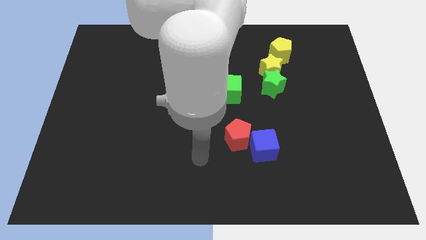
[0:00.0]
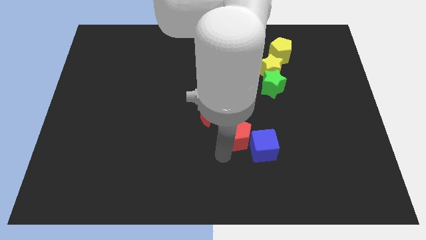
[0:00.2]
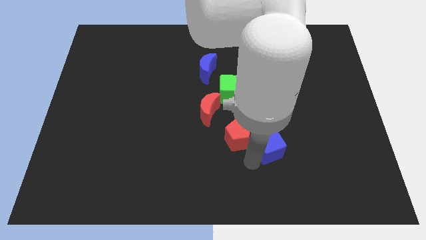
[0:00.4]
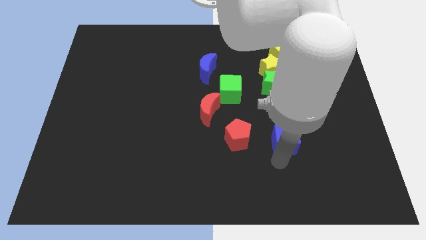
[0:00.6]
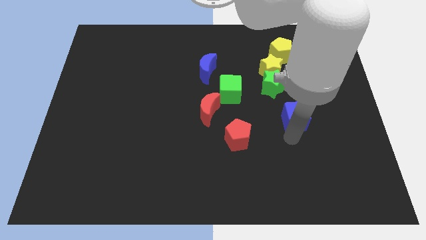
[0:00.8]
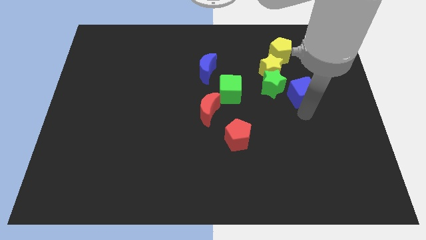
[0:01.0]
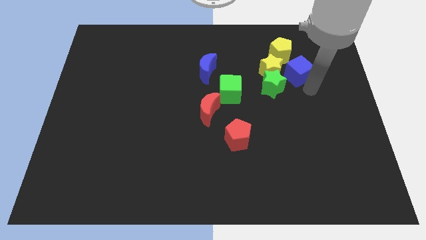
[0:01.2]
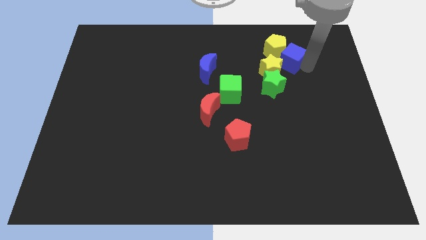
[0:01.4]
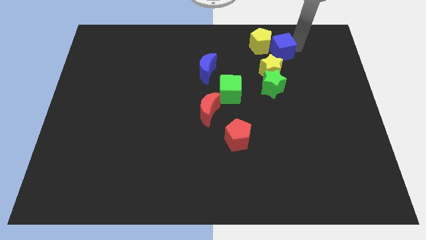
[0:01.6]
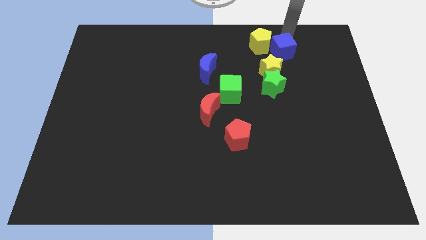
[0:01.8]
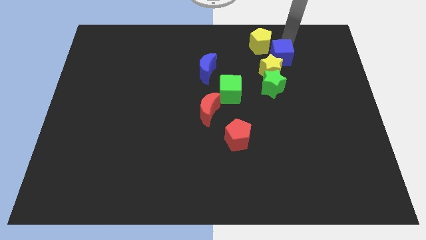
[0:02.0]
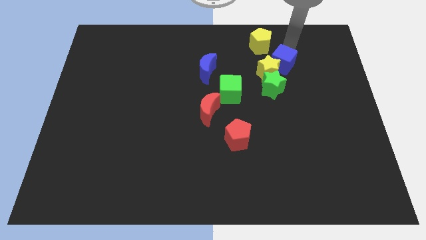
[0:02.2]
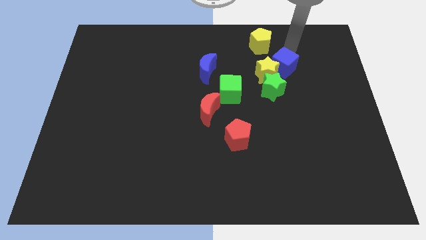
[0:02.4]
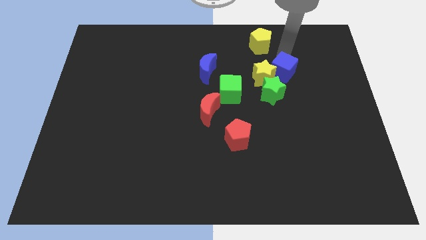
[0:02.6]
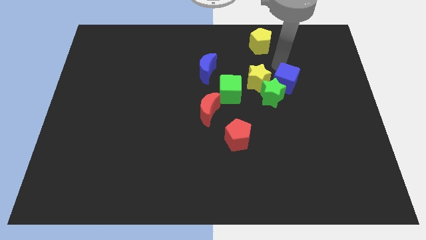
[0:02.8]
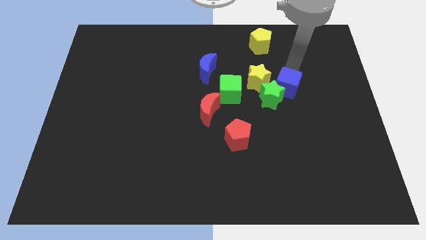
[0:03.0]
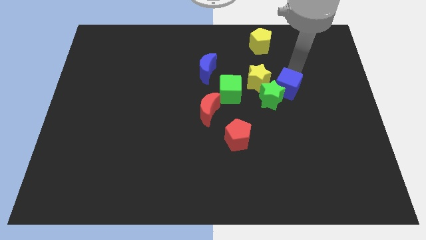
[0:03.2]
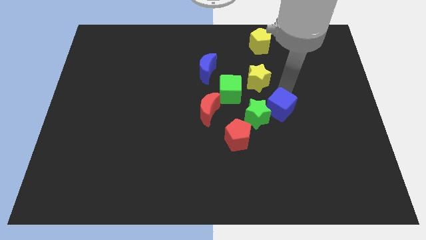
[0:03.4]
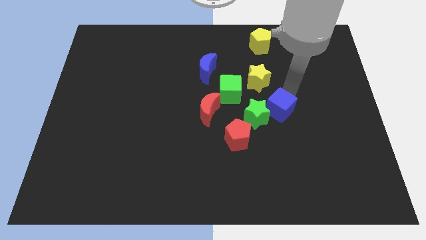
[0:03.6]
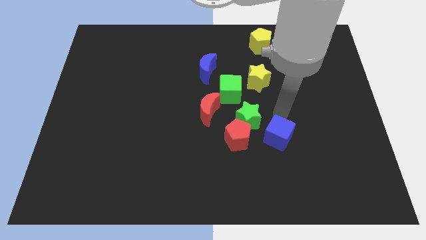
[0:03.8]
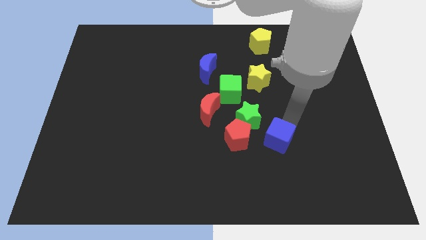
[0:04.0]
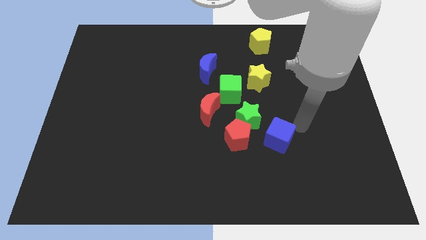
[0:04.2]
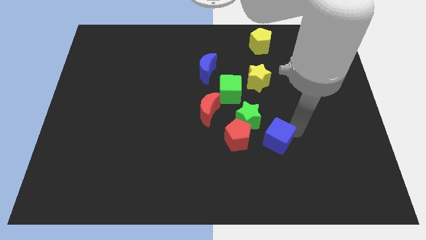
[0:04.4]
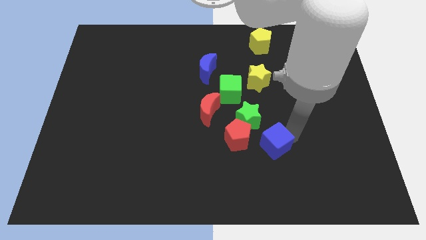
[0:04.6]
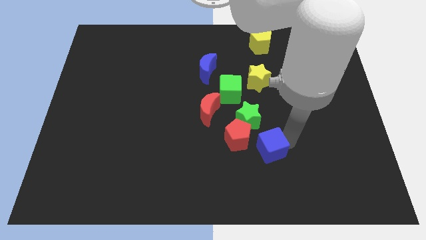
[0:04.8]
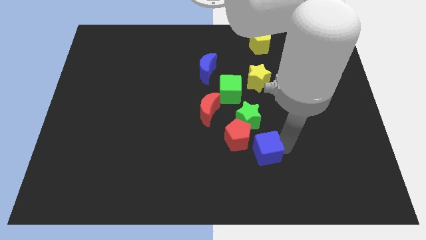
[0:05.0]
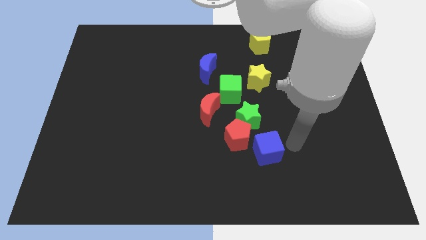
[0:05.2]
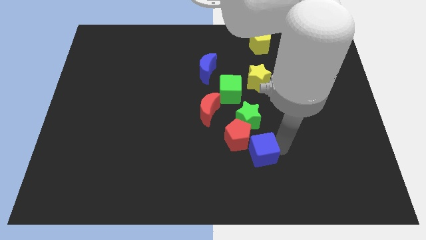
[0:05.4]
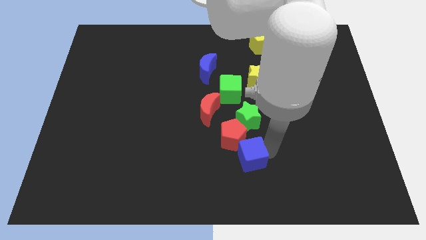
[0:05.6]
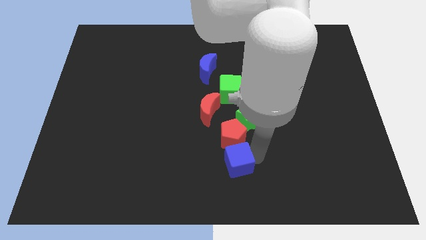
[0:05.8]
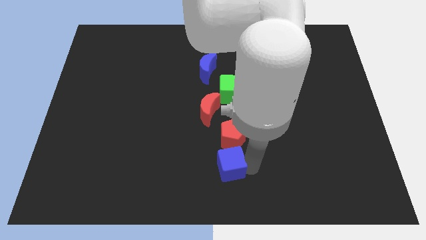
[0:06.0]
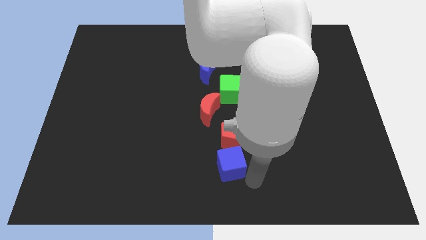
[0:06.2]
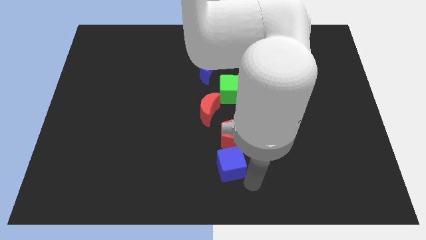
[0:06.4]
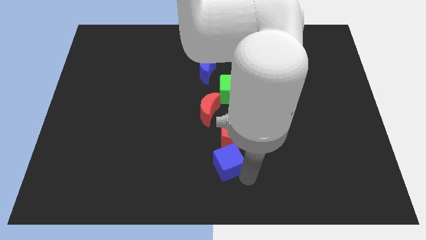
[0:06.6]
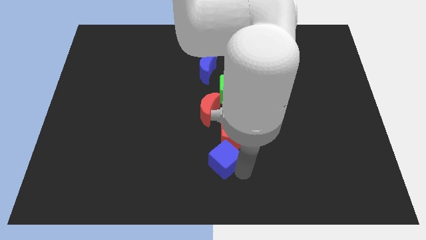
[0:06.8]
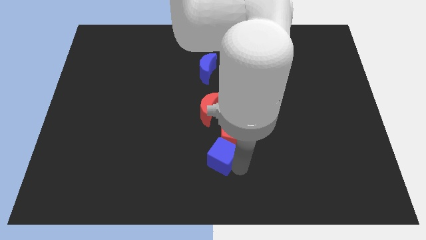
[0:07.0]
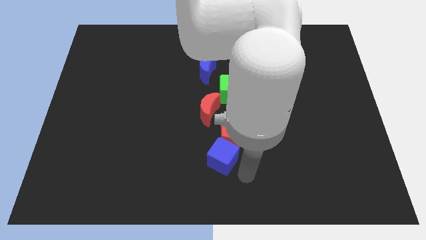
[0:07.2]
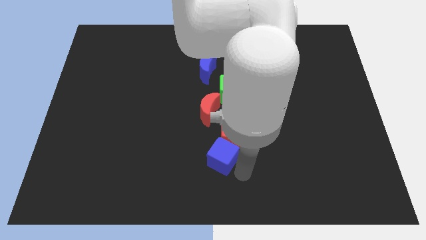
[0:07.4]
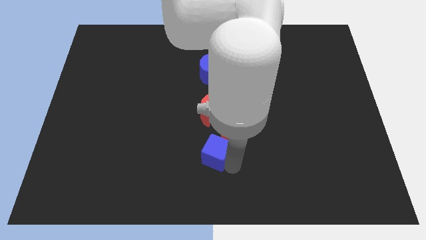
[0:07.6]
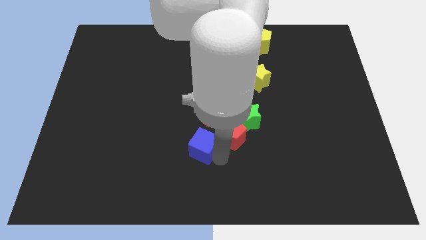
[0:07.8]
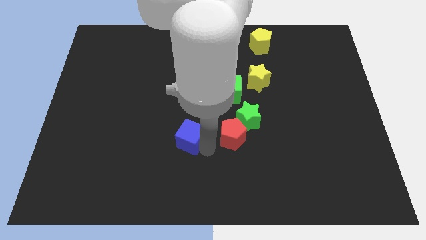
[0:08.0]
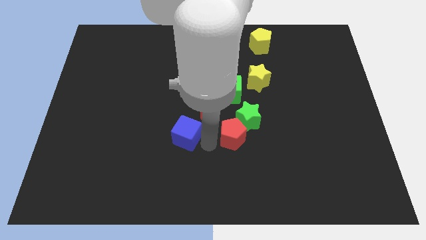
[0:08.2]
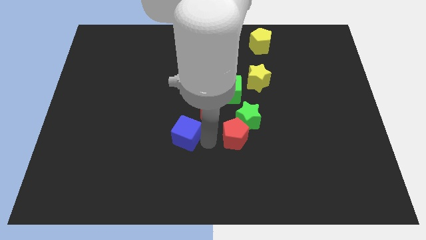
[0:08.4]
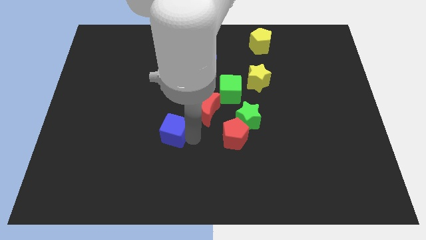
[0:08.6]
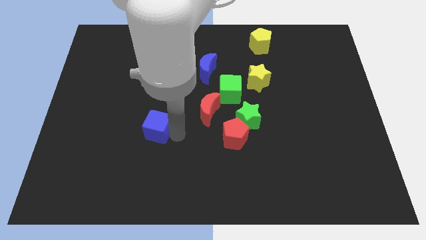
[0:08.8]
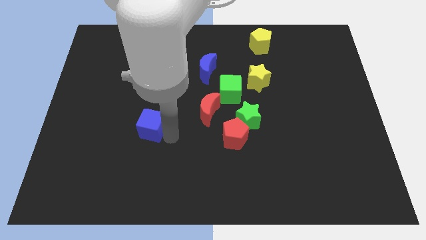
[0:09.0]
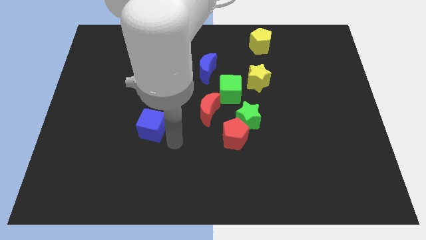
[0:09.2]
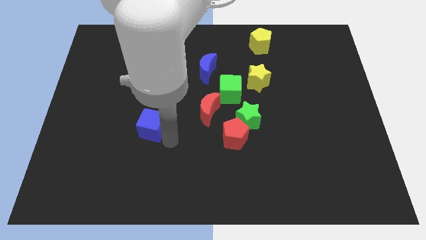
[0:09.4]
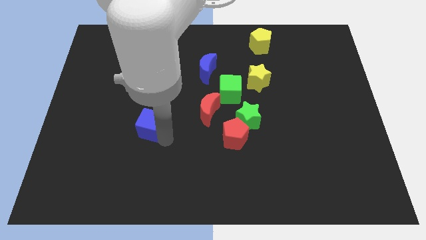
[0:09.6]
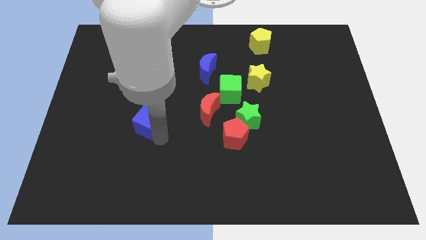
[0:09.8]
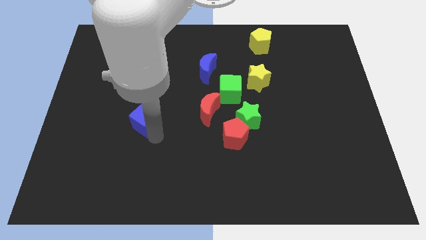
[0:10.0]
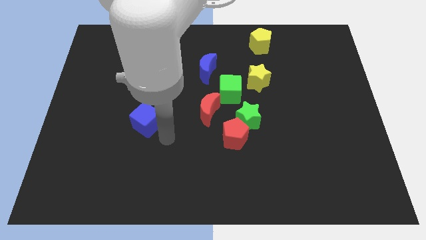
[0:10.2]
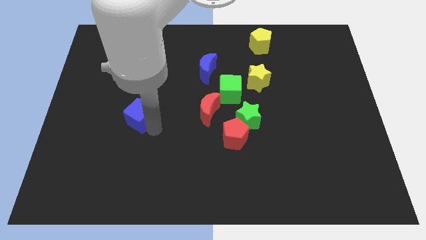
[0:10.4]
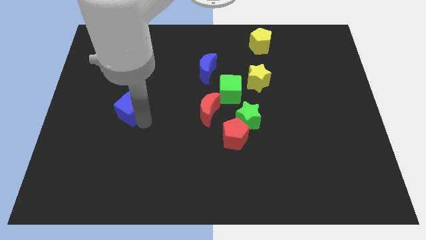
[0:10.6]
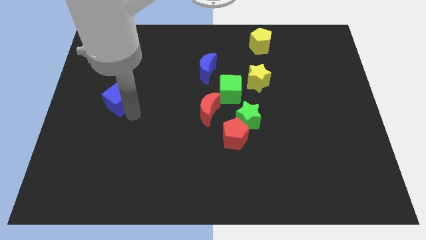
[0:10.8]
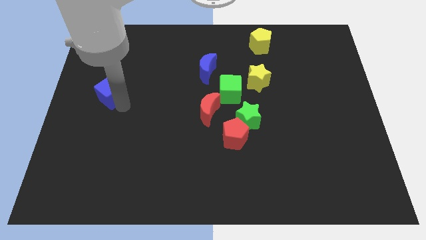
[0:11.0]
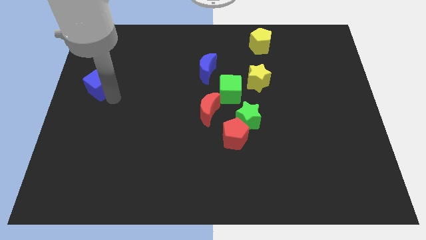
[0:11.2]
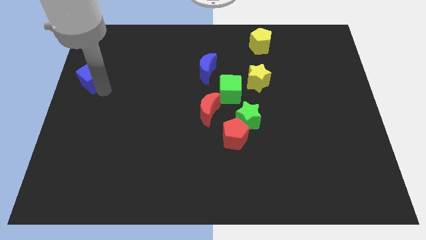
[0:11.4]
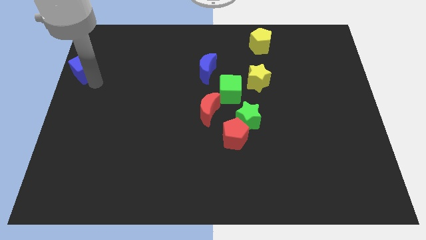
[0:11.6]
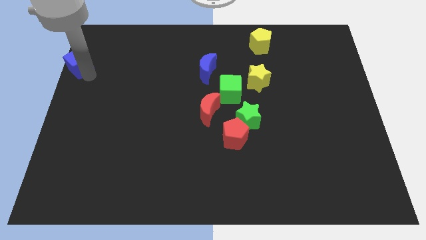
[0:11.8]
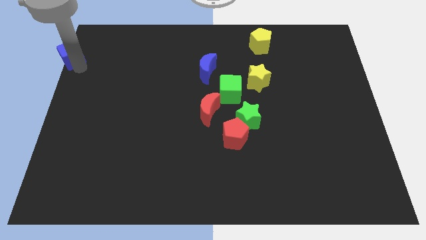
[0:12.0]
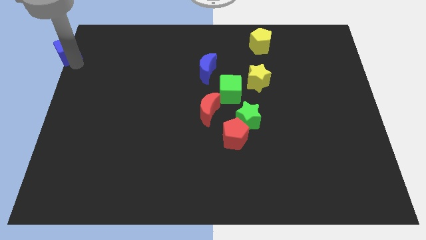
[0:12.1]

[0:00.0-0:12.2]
put the blue cube to the top left of the board
